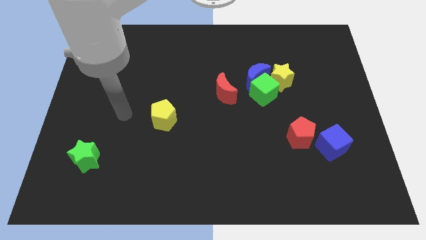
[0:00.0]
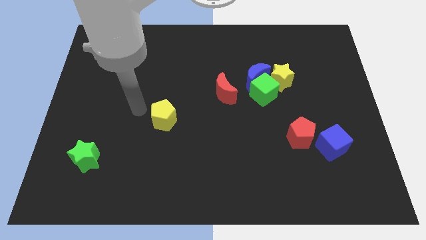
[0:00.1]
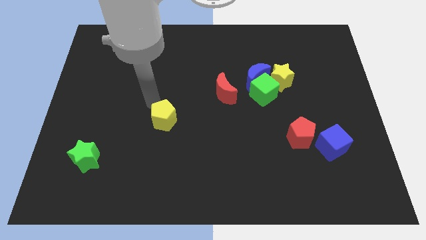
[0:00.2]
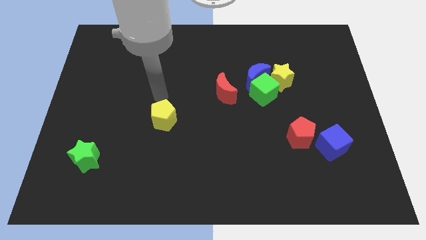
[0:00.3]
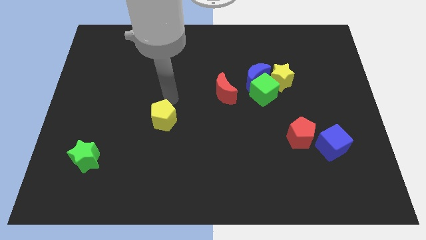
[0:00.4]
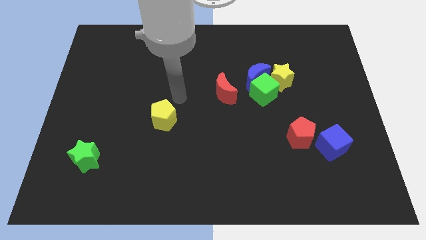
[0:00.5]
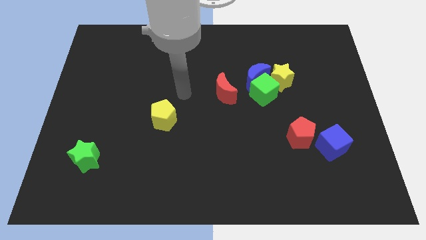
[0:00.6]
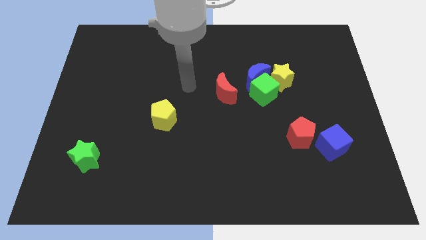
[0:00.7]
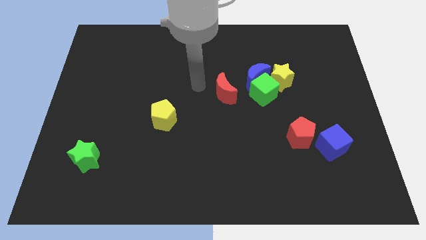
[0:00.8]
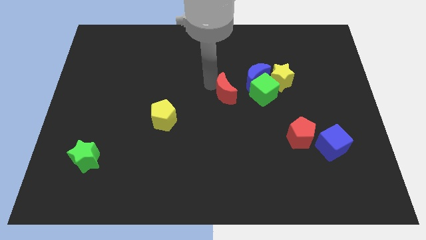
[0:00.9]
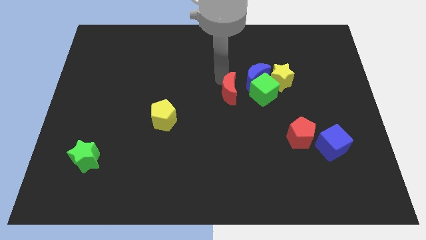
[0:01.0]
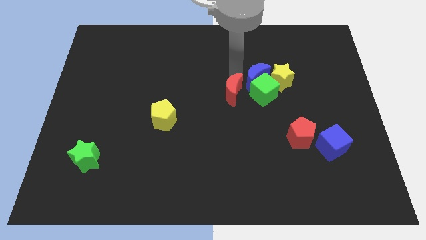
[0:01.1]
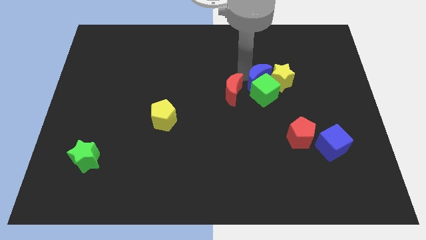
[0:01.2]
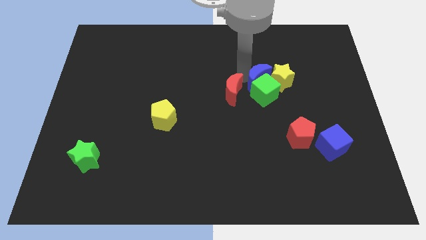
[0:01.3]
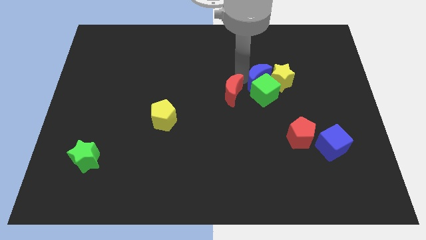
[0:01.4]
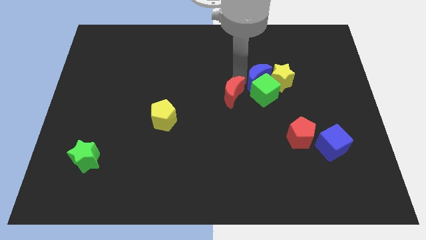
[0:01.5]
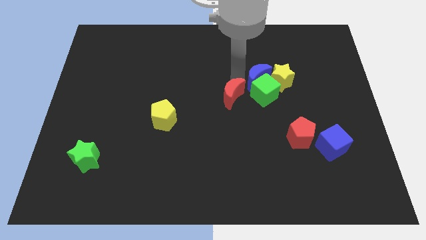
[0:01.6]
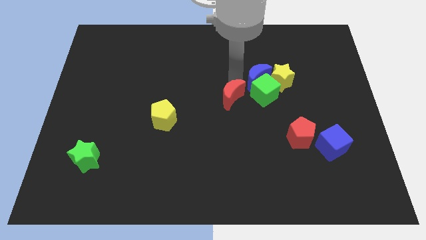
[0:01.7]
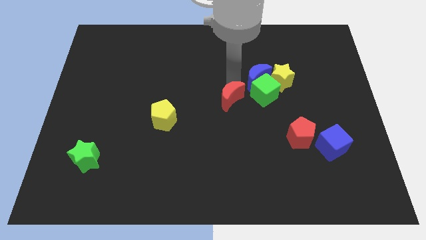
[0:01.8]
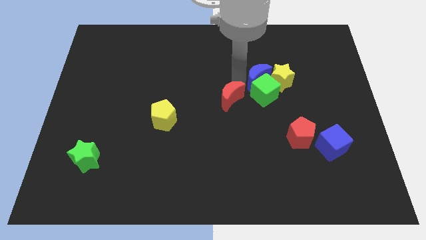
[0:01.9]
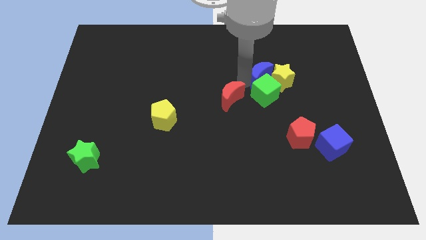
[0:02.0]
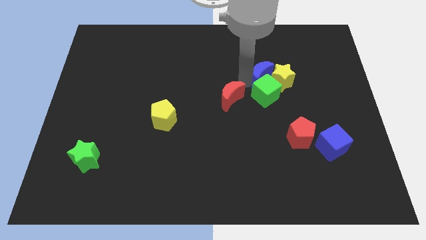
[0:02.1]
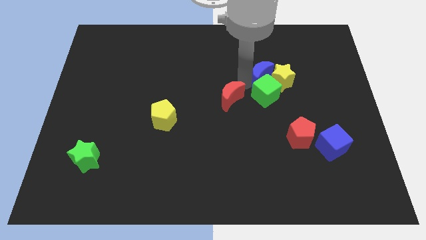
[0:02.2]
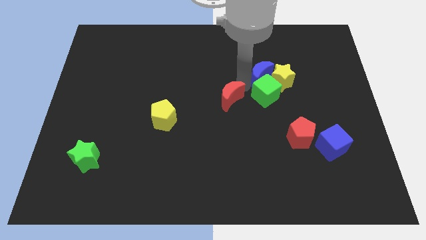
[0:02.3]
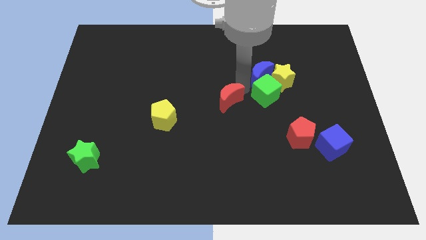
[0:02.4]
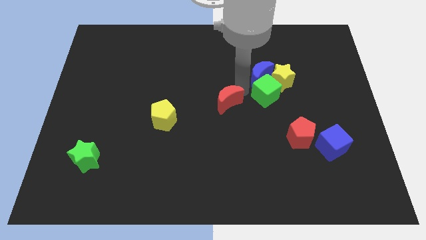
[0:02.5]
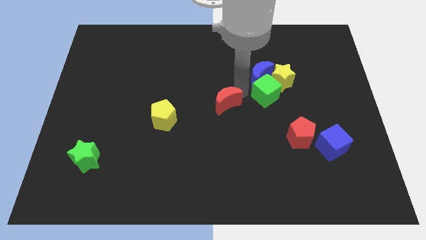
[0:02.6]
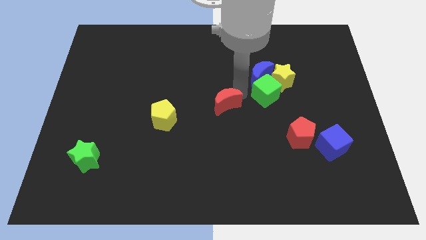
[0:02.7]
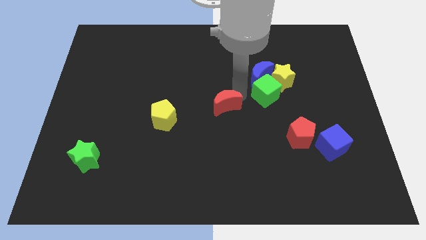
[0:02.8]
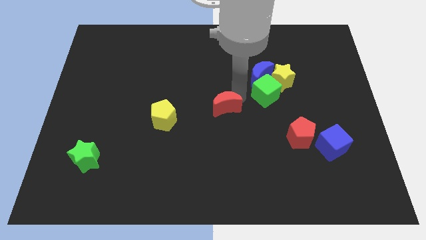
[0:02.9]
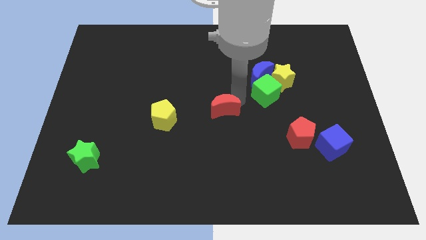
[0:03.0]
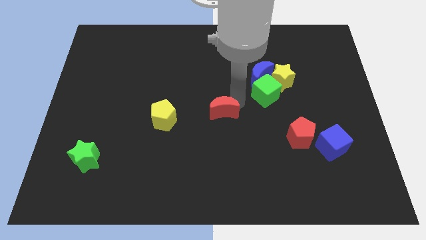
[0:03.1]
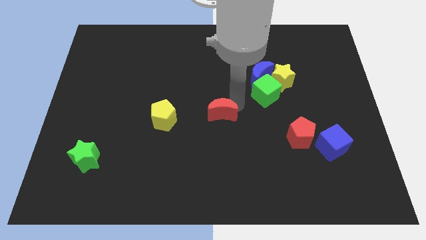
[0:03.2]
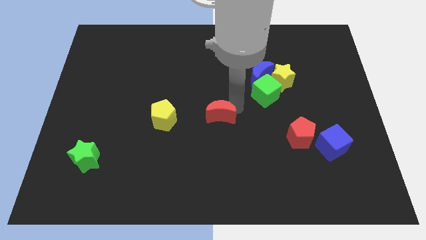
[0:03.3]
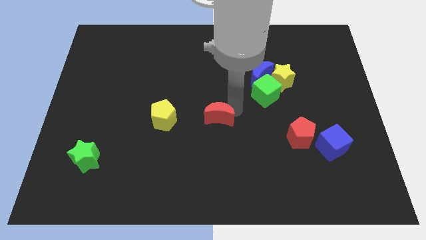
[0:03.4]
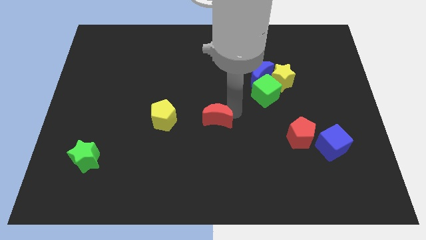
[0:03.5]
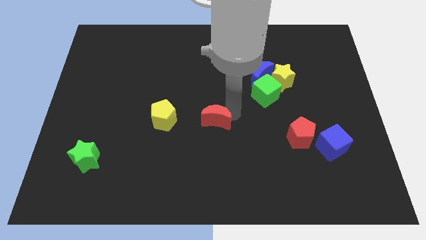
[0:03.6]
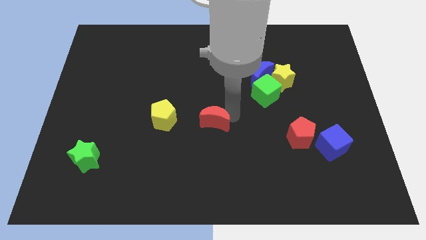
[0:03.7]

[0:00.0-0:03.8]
slightly push the red moon downwards and left

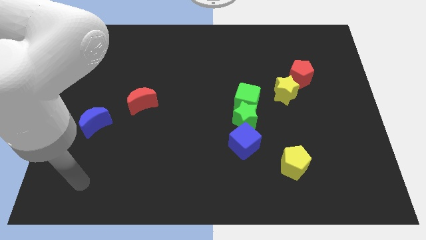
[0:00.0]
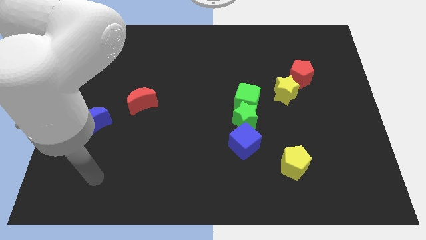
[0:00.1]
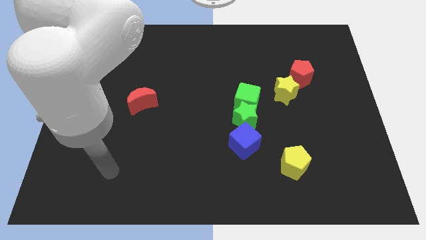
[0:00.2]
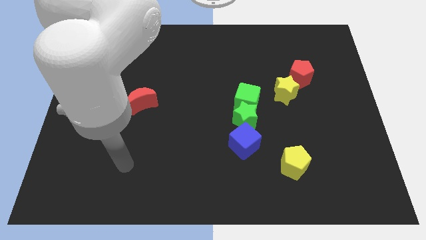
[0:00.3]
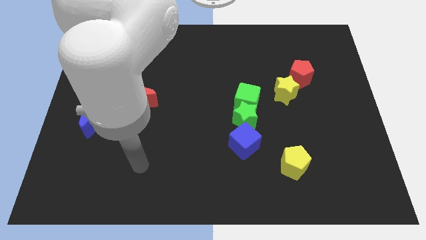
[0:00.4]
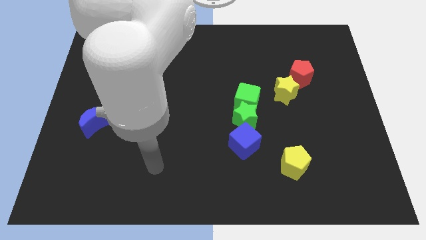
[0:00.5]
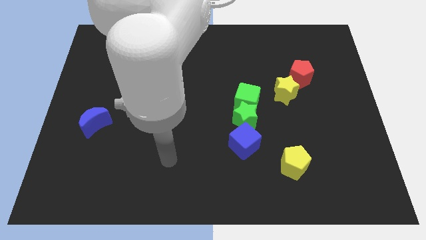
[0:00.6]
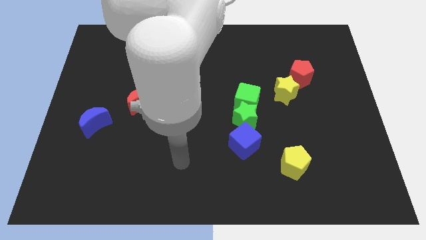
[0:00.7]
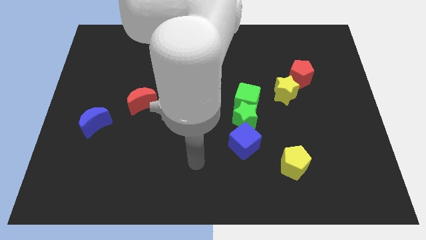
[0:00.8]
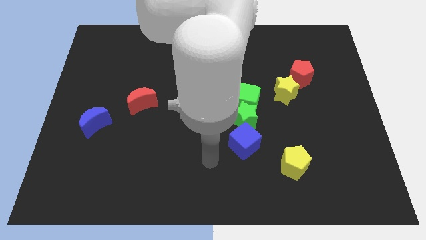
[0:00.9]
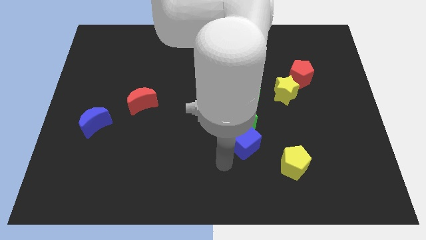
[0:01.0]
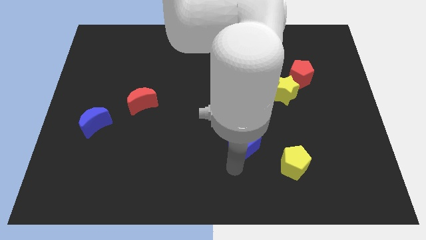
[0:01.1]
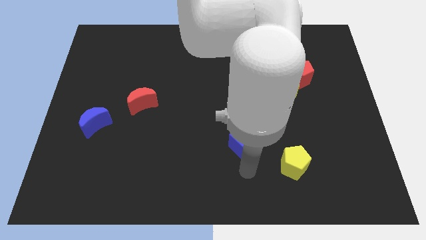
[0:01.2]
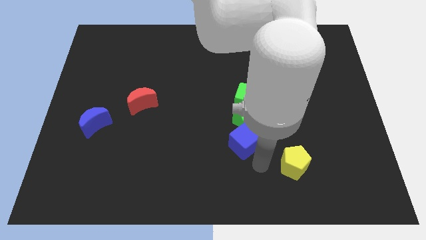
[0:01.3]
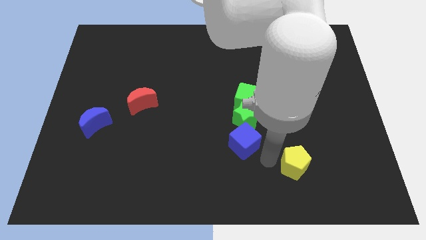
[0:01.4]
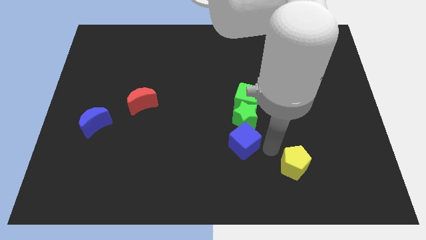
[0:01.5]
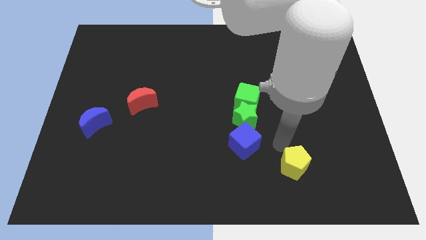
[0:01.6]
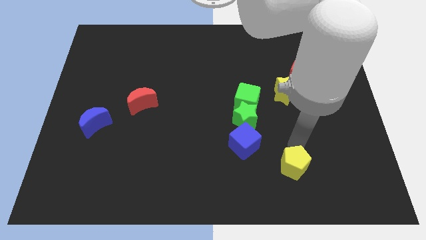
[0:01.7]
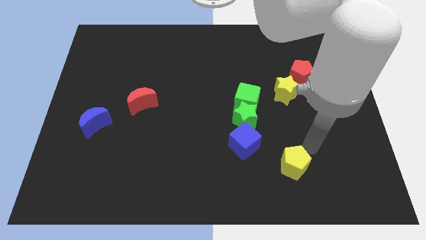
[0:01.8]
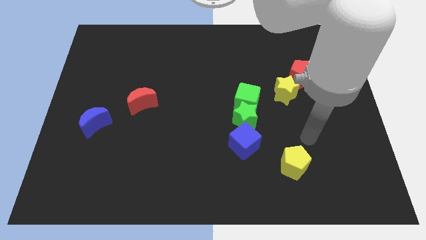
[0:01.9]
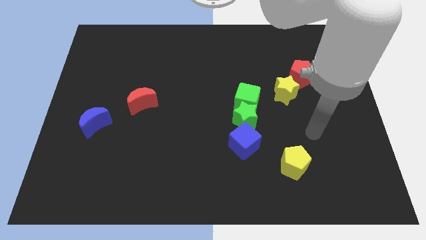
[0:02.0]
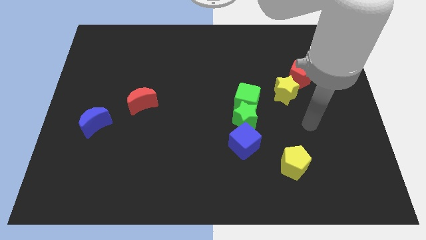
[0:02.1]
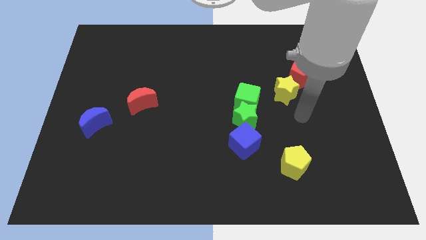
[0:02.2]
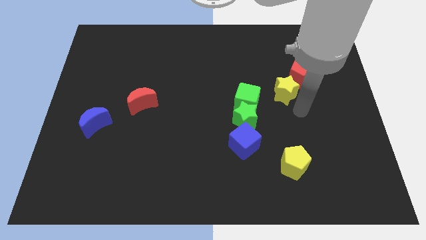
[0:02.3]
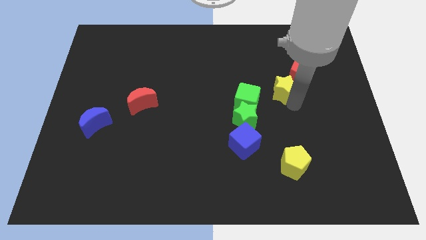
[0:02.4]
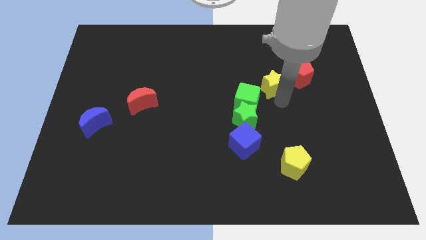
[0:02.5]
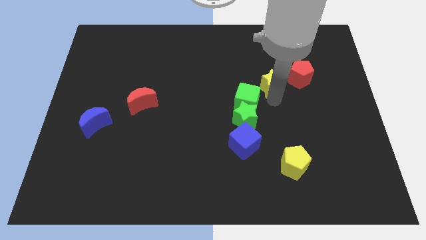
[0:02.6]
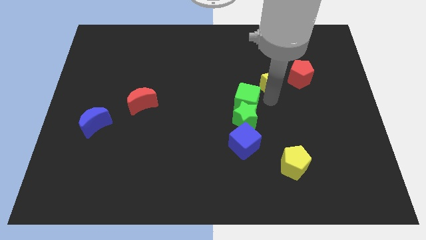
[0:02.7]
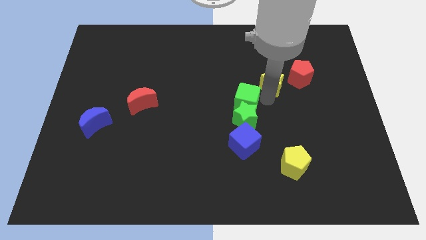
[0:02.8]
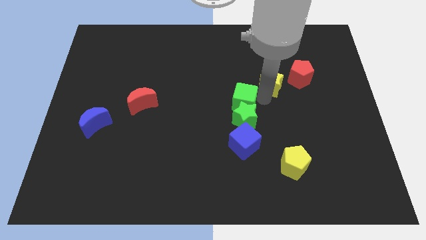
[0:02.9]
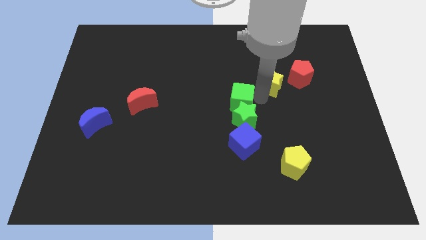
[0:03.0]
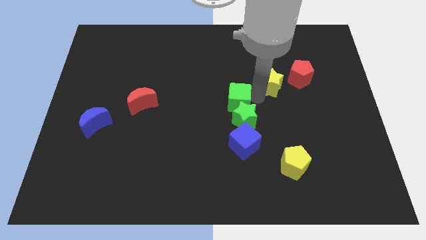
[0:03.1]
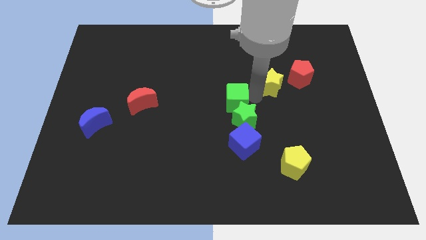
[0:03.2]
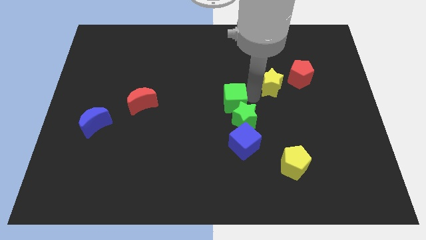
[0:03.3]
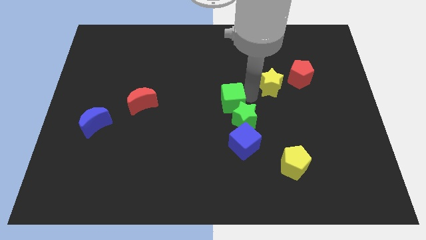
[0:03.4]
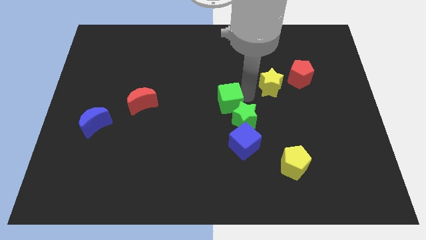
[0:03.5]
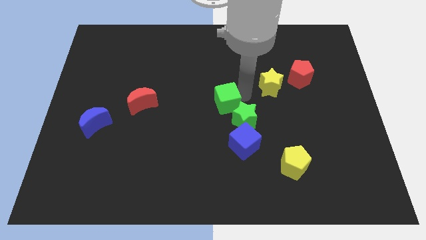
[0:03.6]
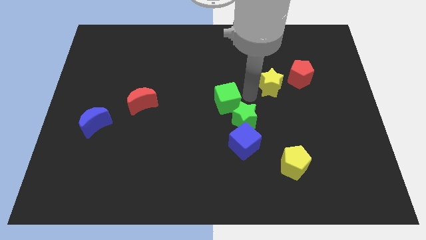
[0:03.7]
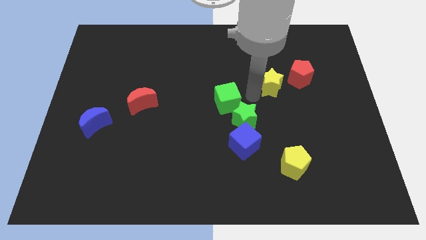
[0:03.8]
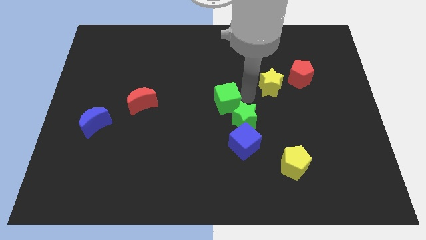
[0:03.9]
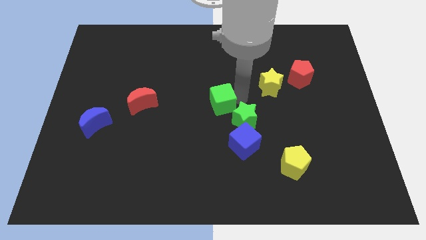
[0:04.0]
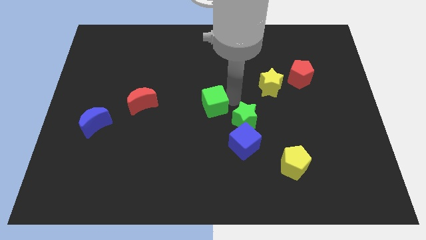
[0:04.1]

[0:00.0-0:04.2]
slide the green cube a little bit to the left
